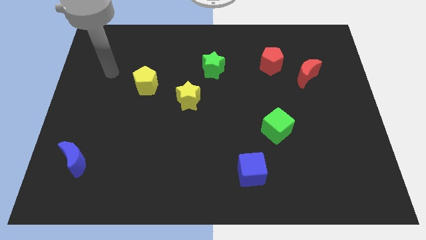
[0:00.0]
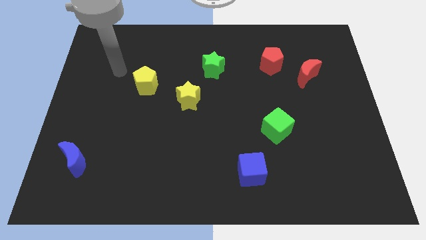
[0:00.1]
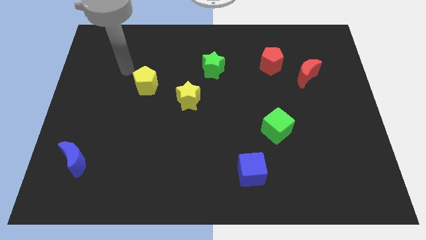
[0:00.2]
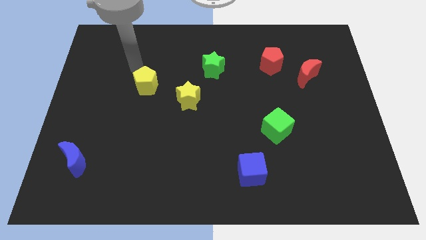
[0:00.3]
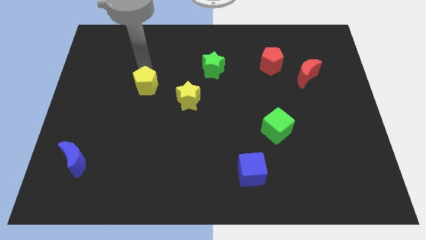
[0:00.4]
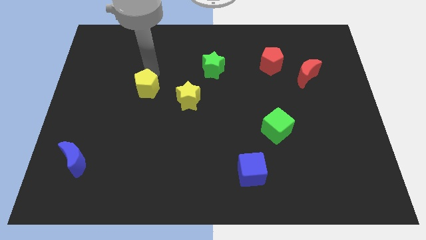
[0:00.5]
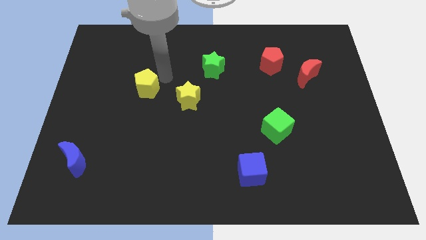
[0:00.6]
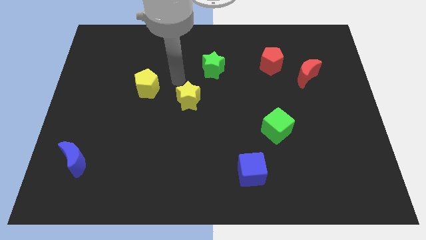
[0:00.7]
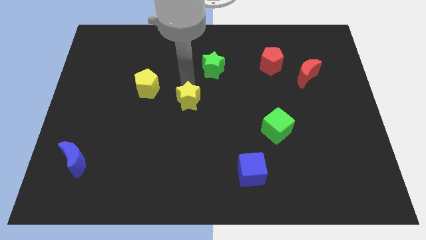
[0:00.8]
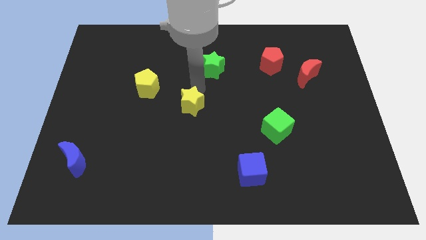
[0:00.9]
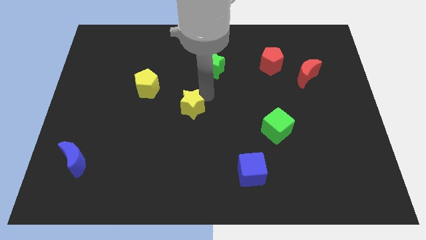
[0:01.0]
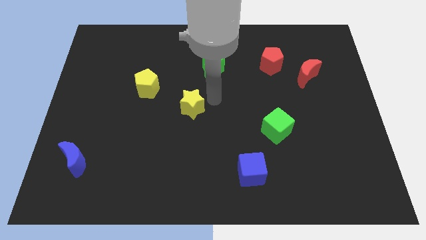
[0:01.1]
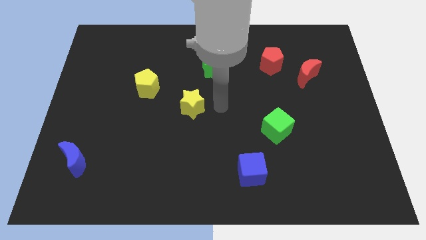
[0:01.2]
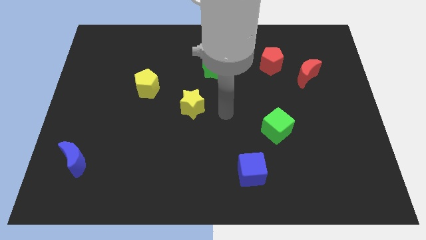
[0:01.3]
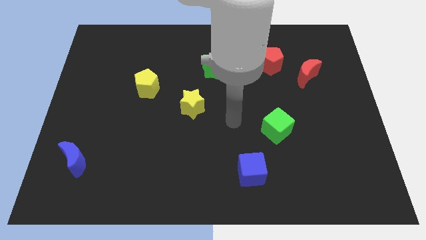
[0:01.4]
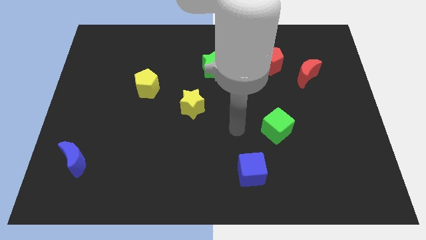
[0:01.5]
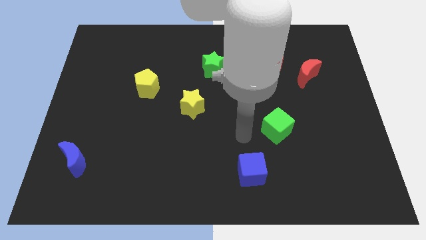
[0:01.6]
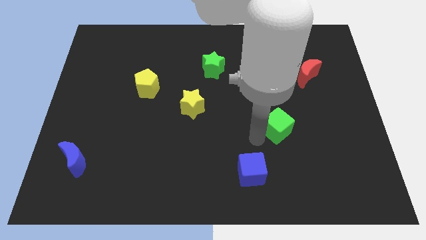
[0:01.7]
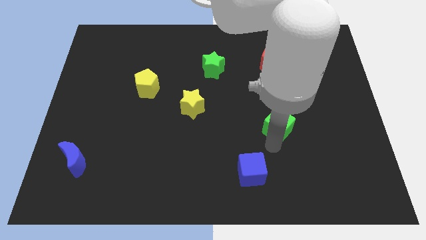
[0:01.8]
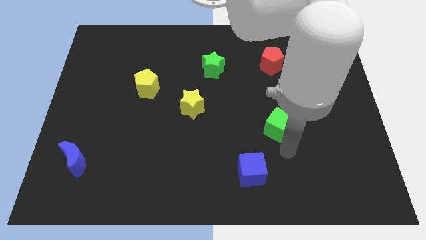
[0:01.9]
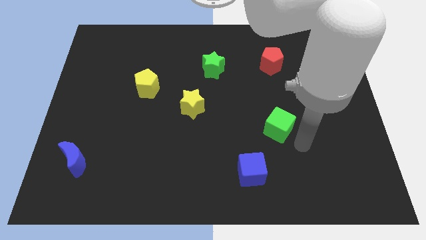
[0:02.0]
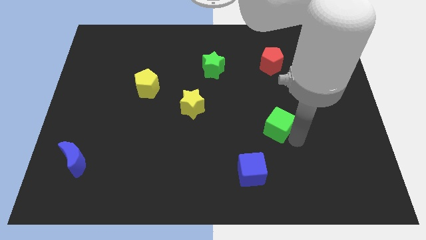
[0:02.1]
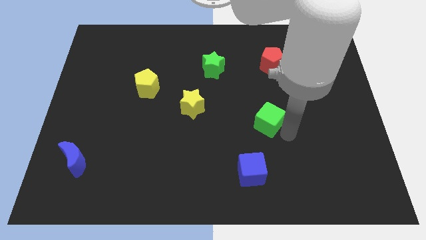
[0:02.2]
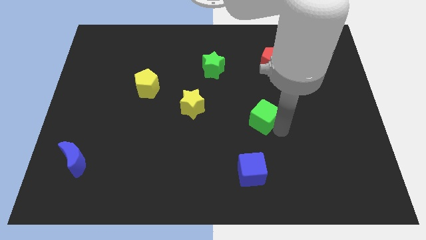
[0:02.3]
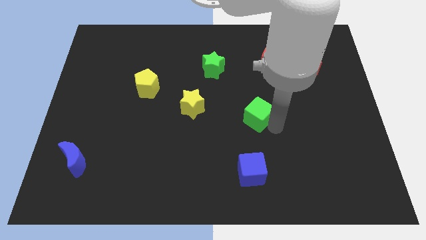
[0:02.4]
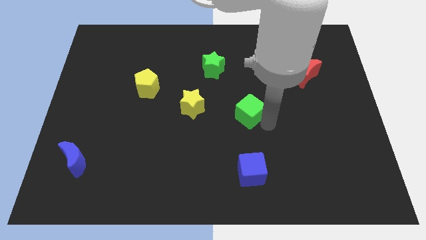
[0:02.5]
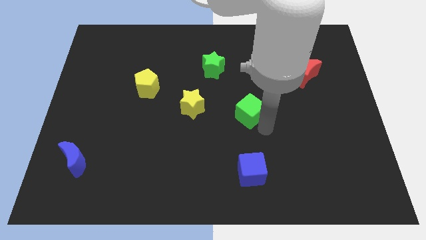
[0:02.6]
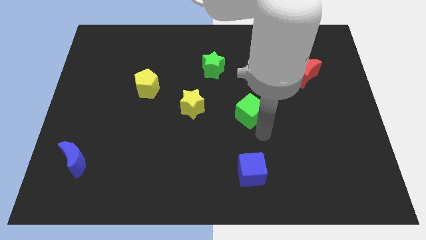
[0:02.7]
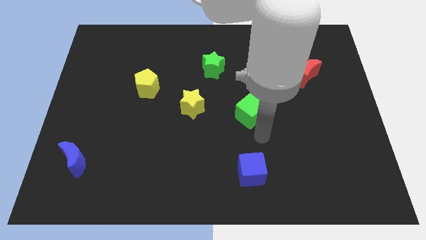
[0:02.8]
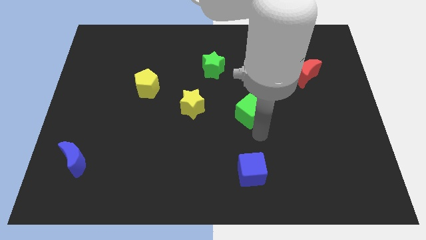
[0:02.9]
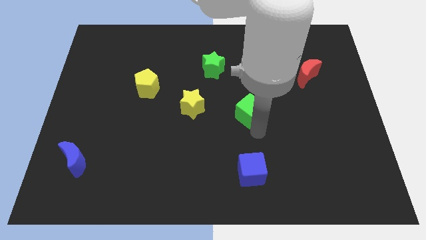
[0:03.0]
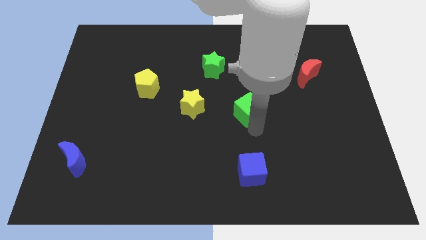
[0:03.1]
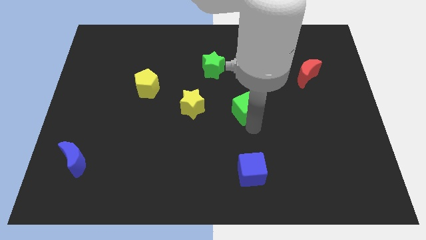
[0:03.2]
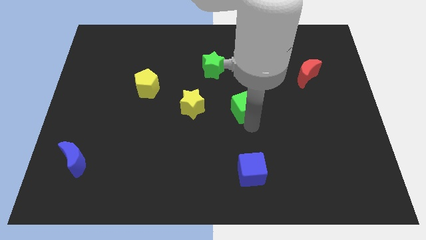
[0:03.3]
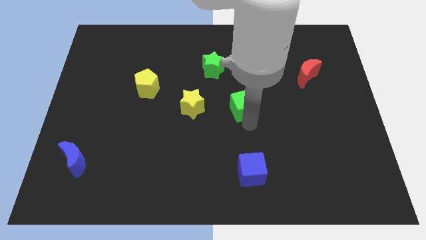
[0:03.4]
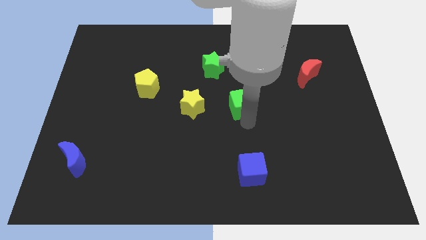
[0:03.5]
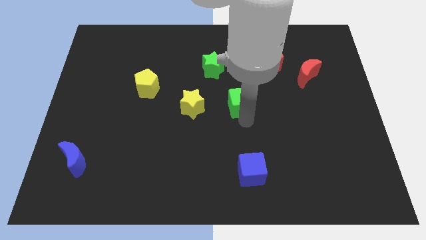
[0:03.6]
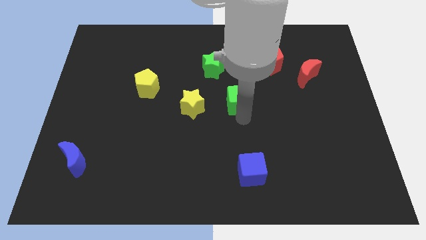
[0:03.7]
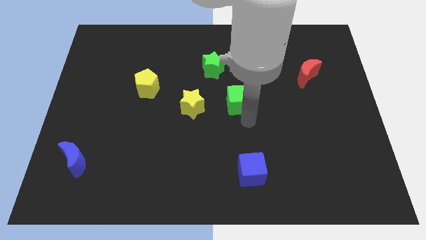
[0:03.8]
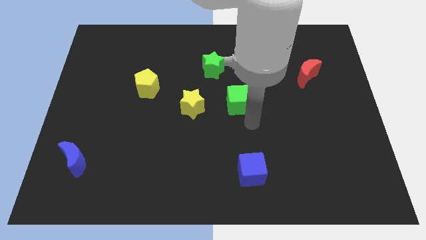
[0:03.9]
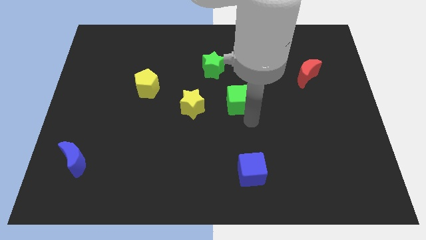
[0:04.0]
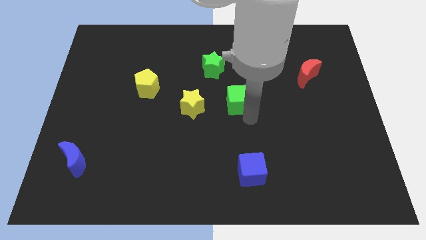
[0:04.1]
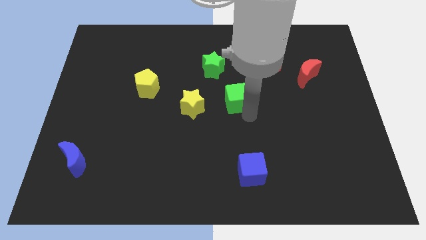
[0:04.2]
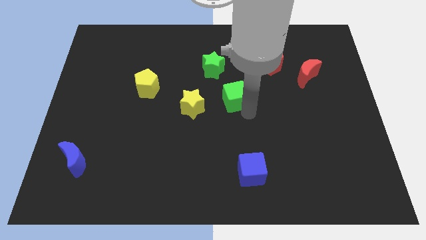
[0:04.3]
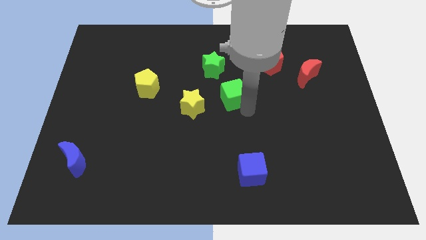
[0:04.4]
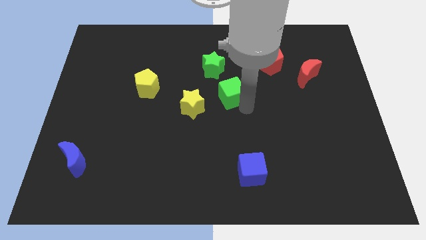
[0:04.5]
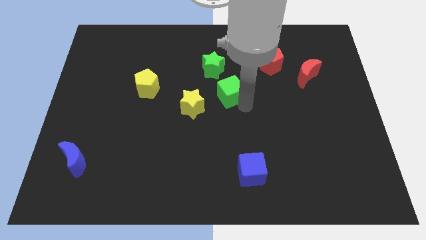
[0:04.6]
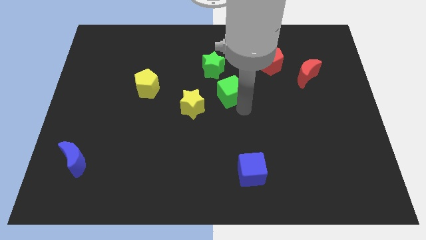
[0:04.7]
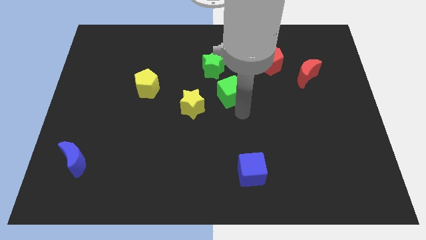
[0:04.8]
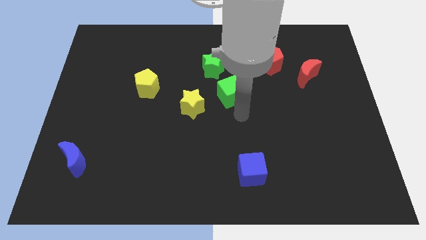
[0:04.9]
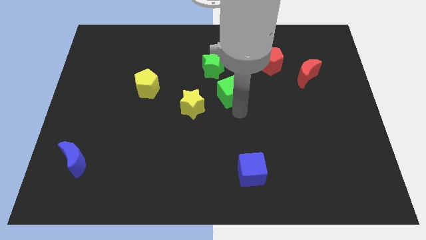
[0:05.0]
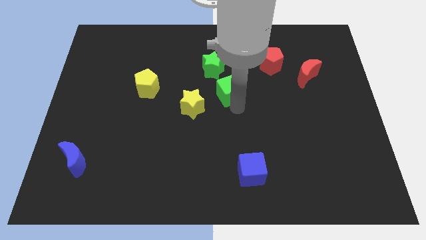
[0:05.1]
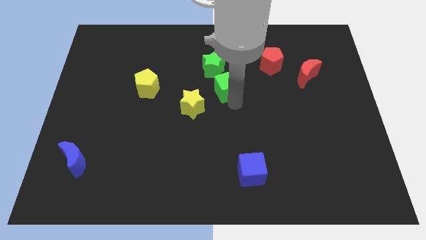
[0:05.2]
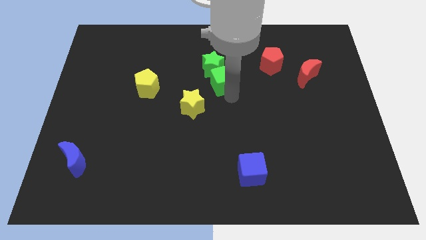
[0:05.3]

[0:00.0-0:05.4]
move the green cube close to the green star

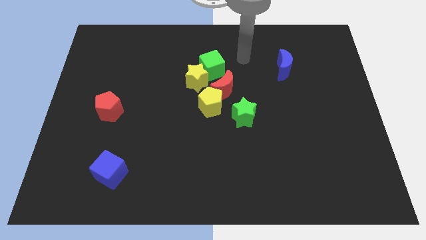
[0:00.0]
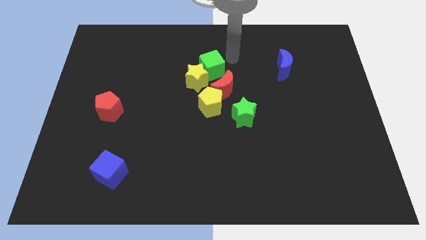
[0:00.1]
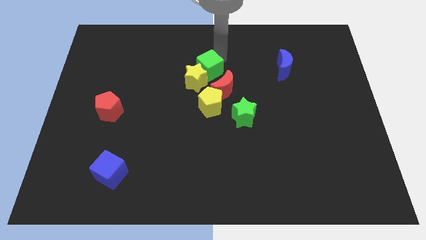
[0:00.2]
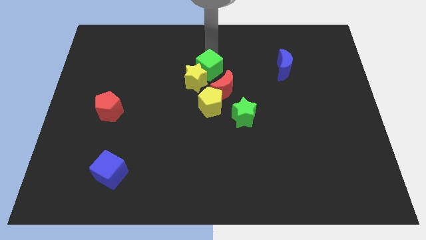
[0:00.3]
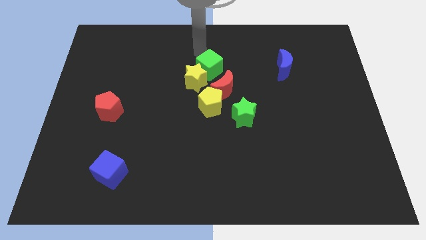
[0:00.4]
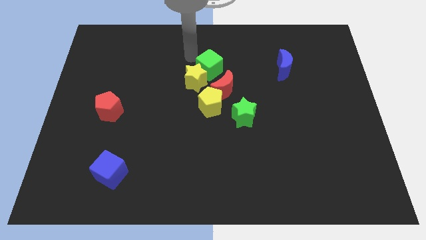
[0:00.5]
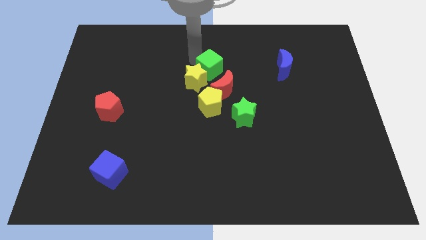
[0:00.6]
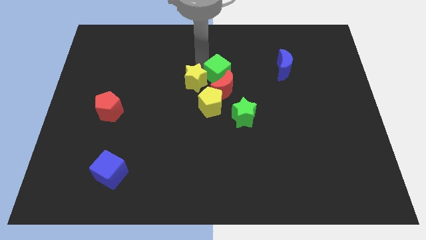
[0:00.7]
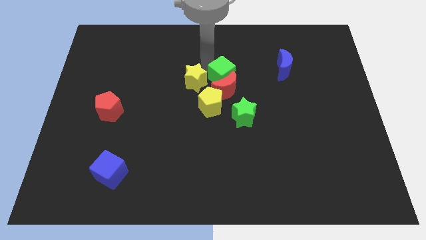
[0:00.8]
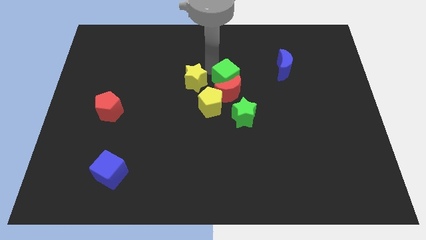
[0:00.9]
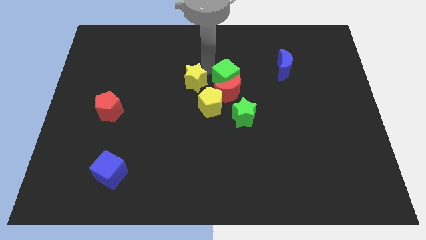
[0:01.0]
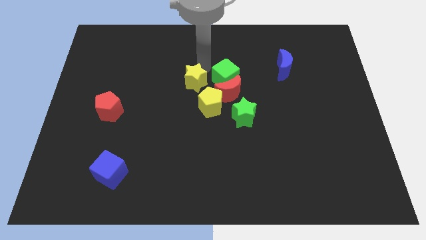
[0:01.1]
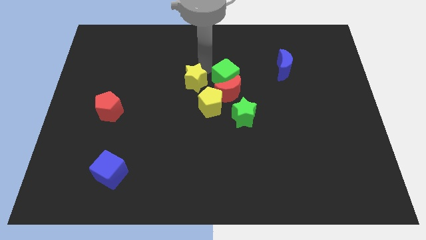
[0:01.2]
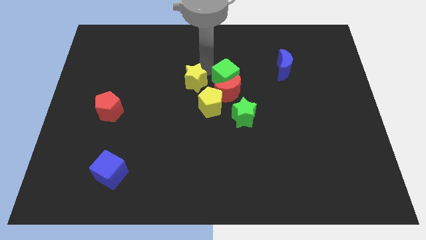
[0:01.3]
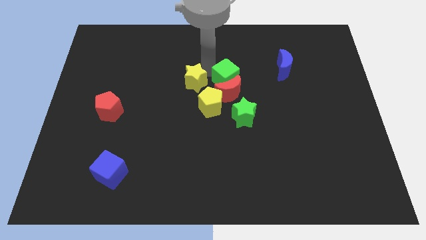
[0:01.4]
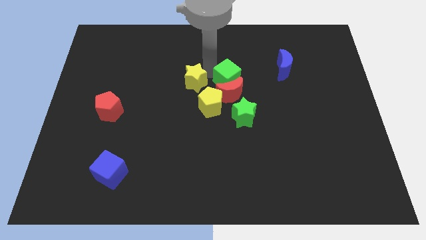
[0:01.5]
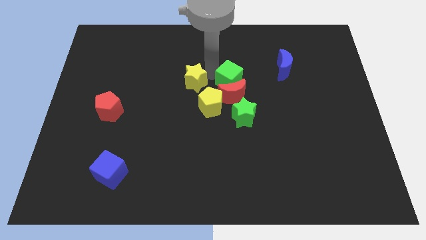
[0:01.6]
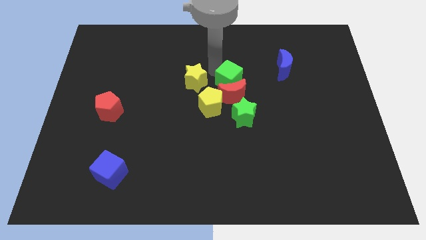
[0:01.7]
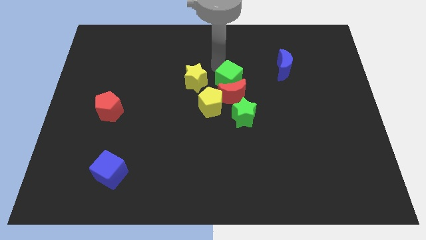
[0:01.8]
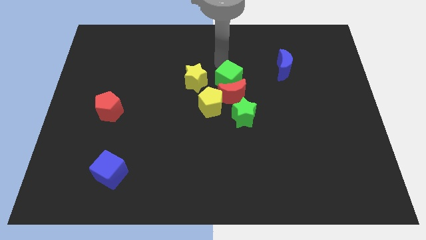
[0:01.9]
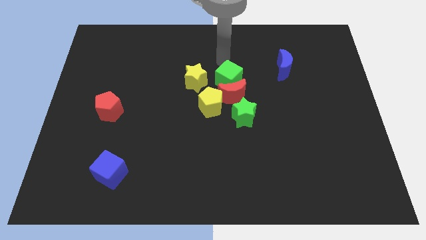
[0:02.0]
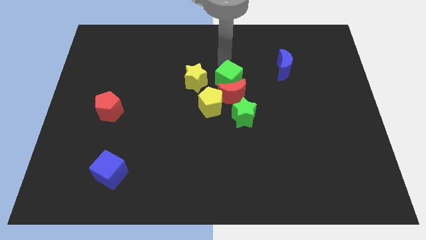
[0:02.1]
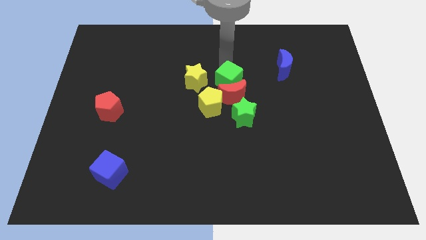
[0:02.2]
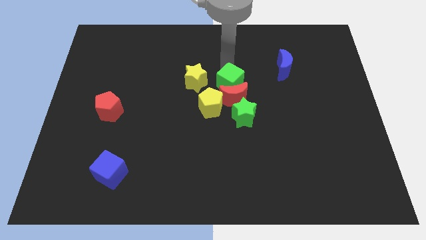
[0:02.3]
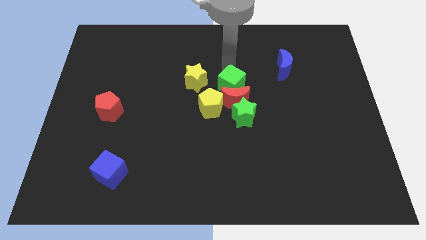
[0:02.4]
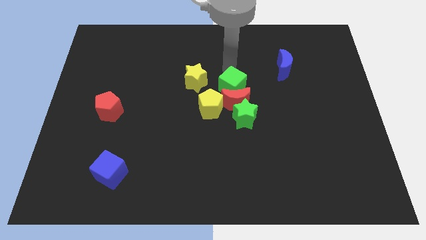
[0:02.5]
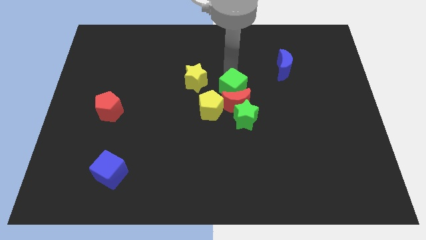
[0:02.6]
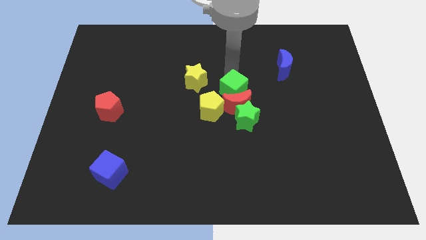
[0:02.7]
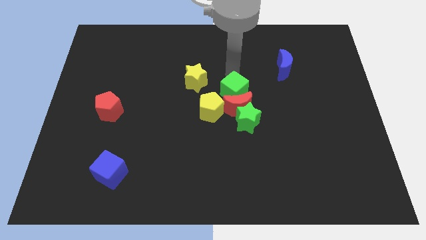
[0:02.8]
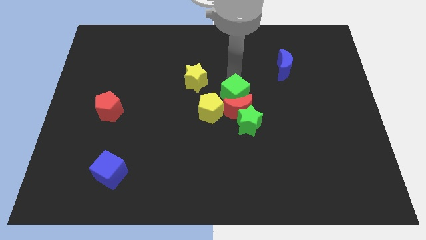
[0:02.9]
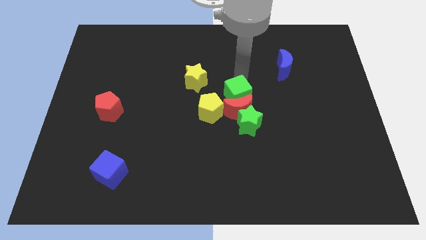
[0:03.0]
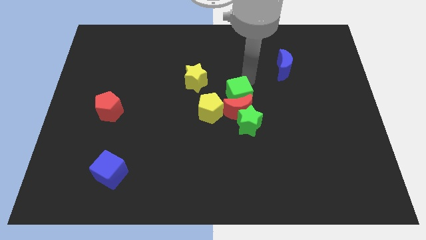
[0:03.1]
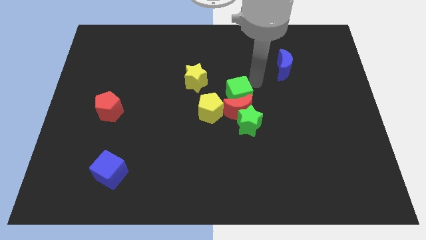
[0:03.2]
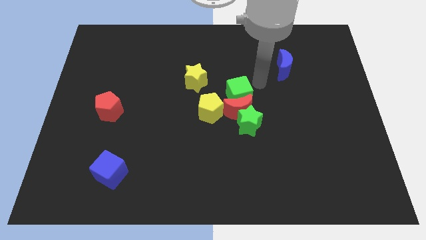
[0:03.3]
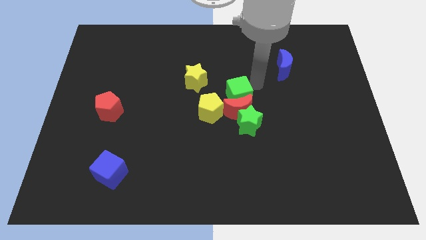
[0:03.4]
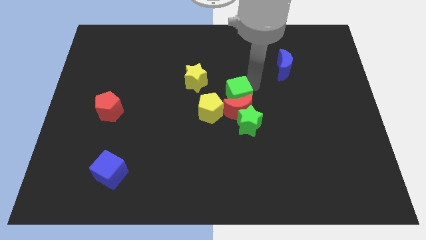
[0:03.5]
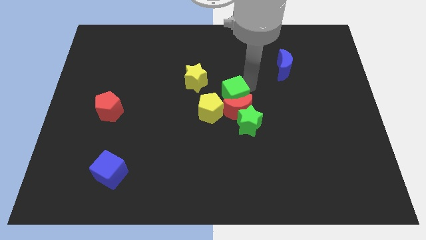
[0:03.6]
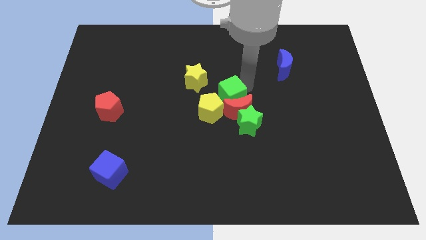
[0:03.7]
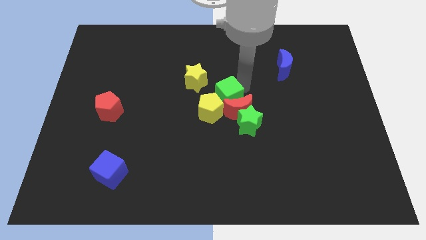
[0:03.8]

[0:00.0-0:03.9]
put the green cube to the yellow pentagon
